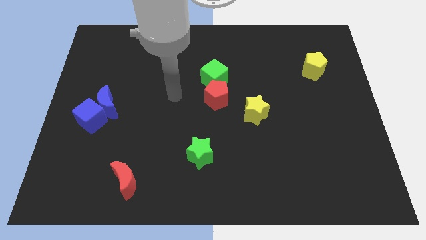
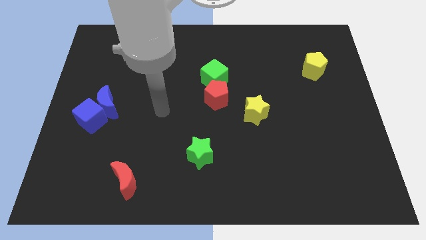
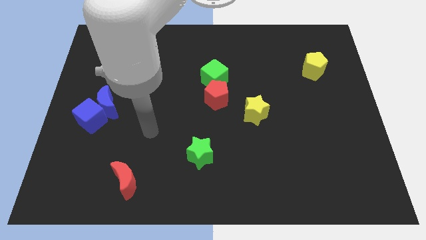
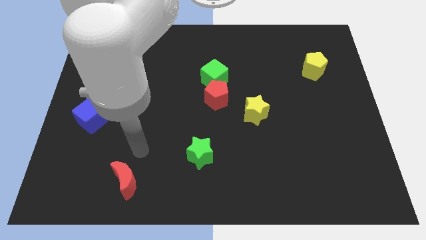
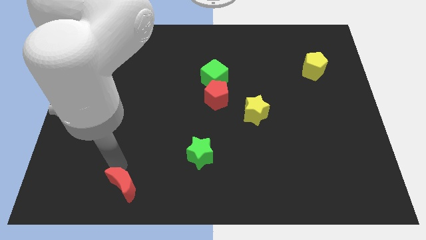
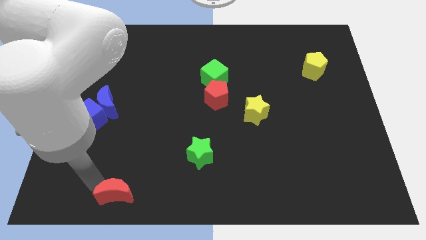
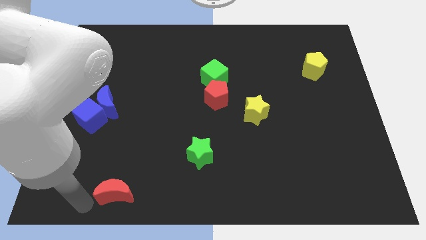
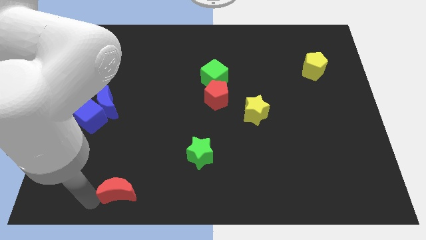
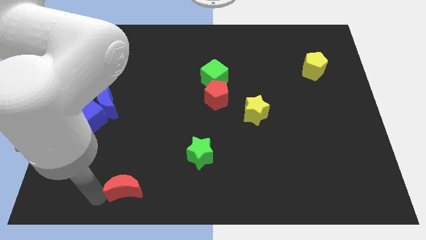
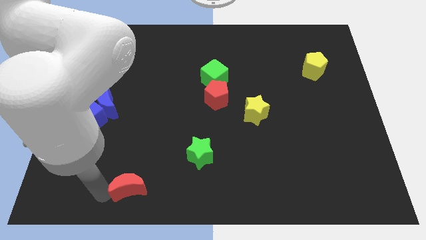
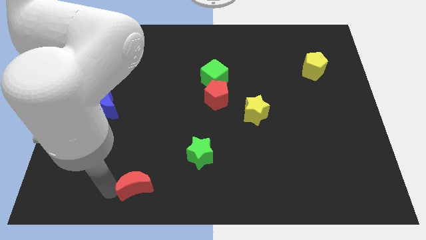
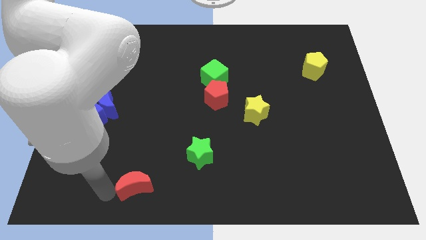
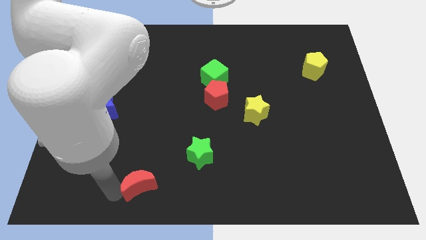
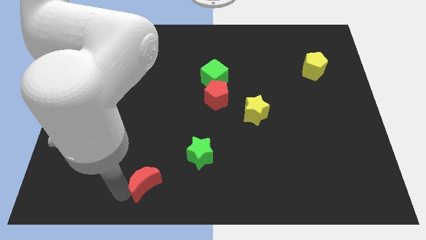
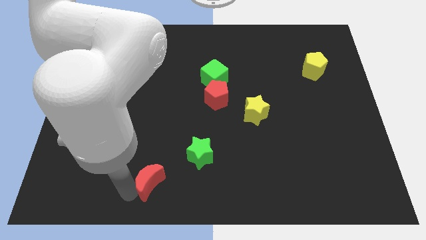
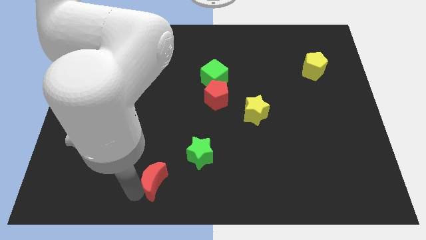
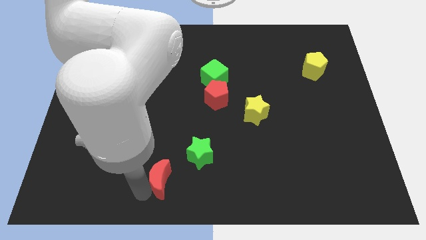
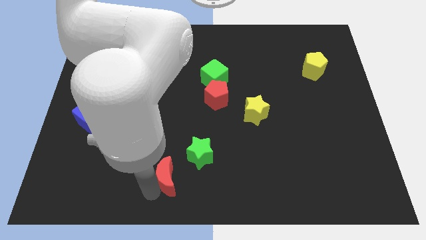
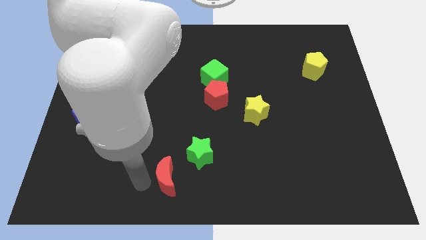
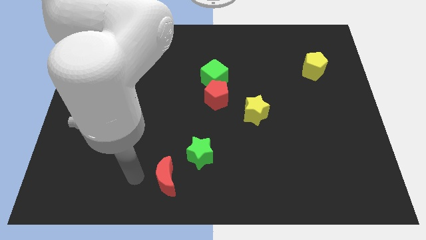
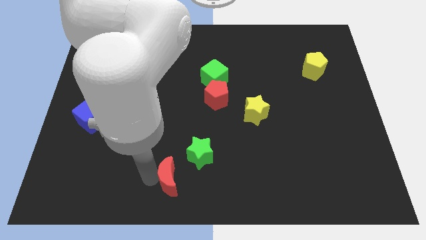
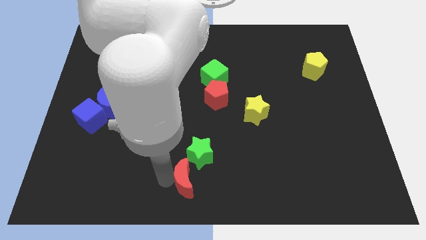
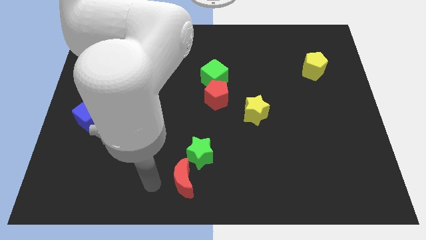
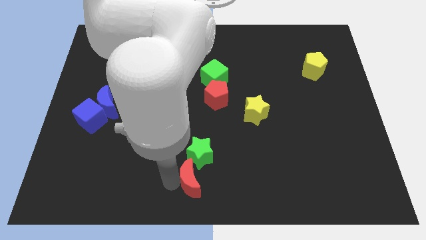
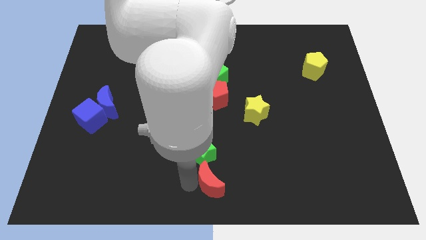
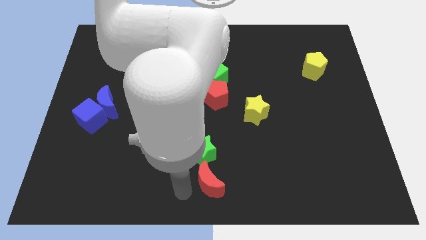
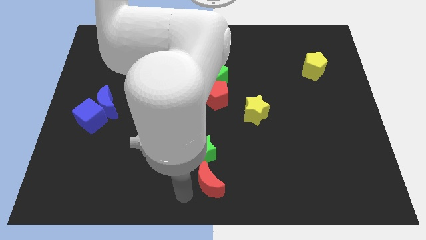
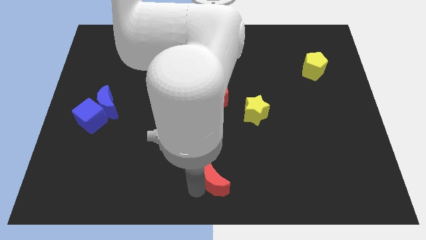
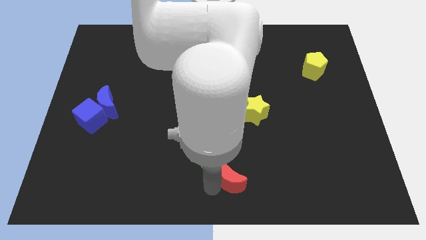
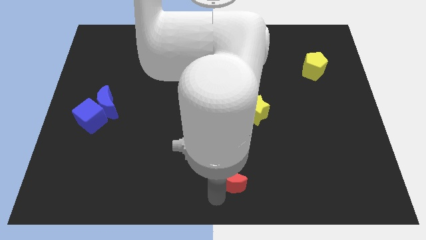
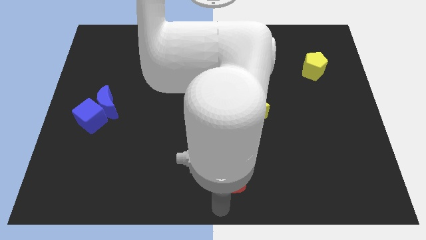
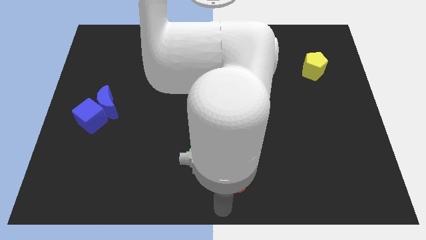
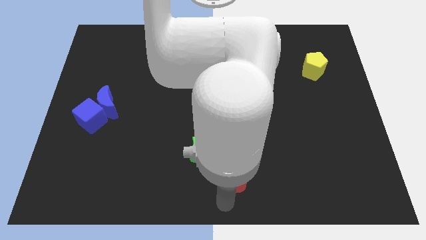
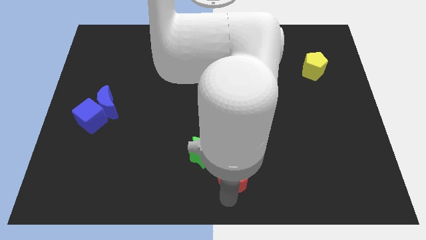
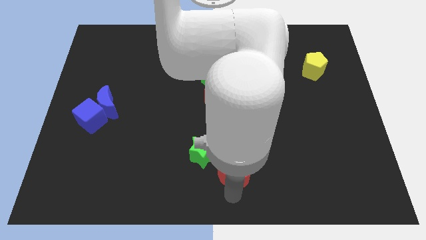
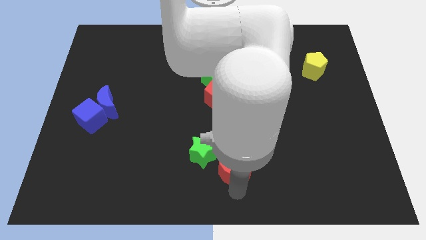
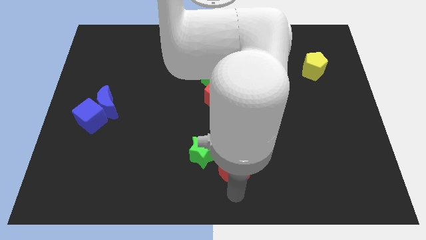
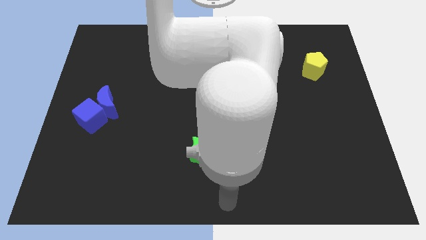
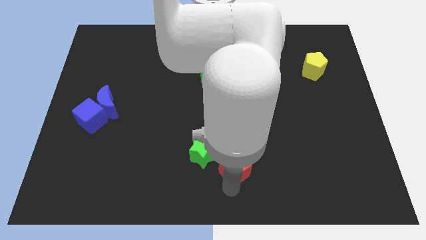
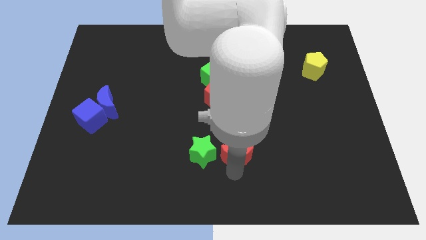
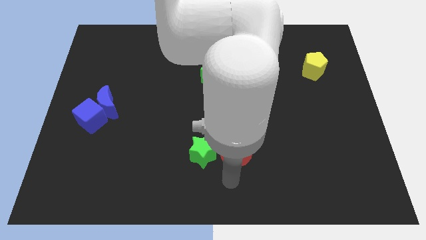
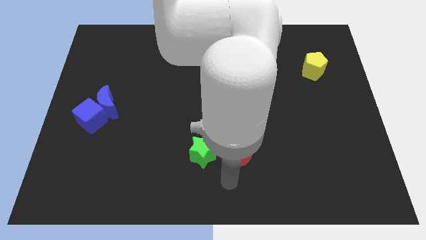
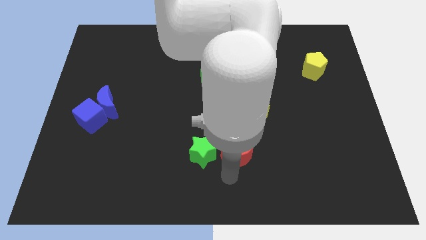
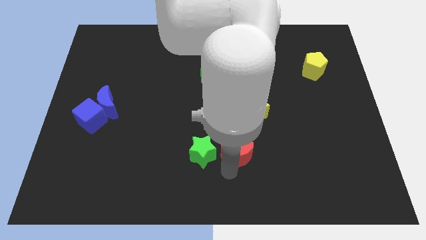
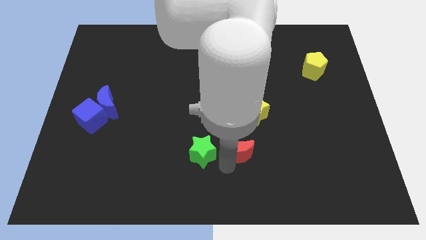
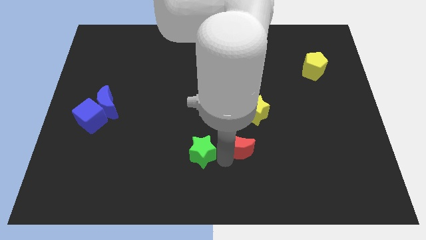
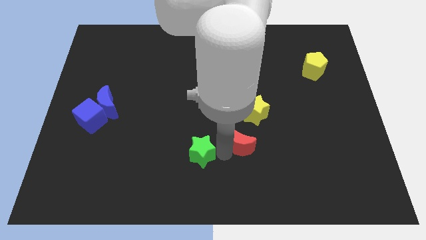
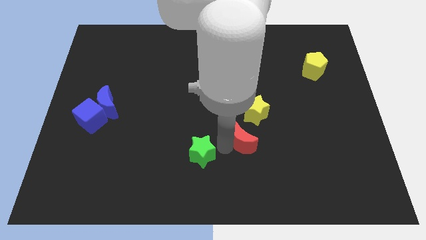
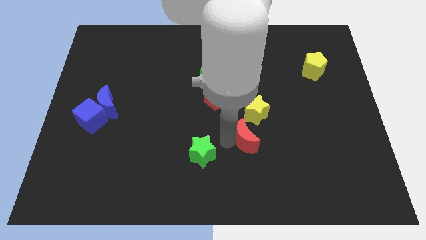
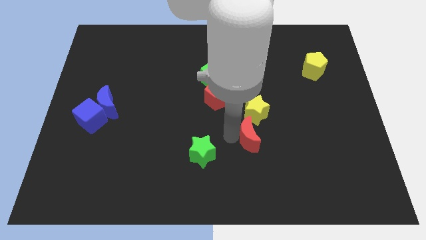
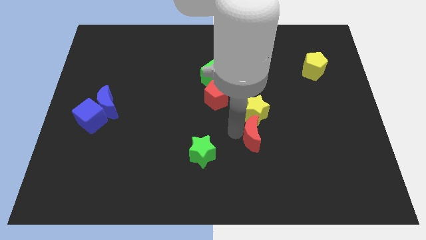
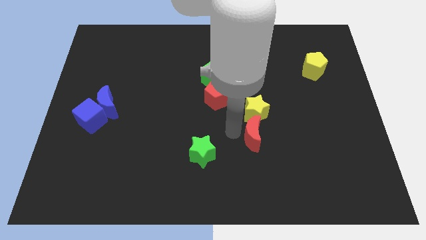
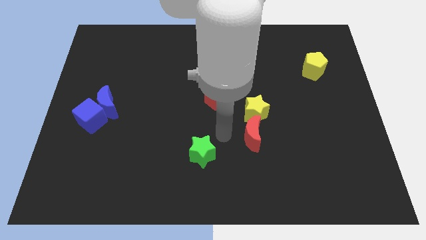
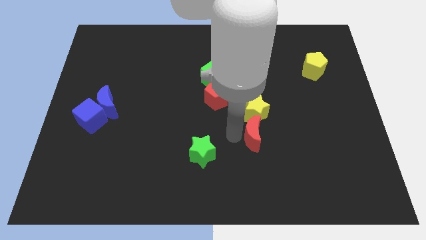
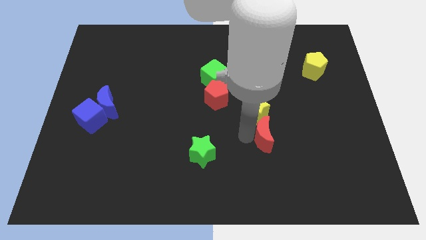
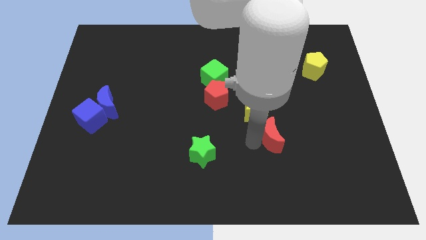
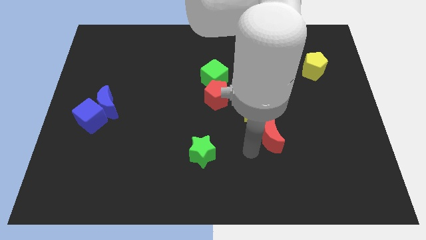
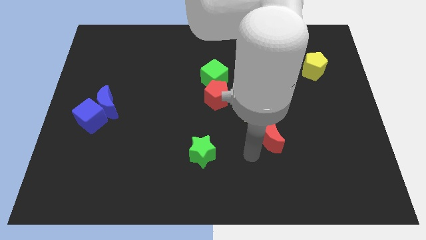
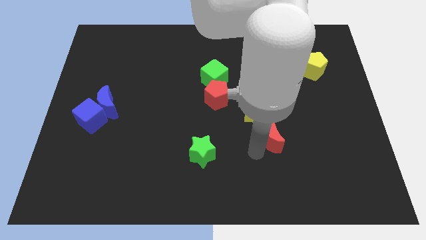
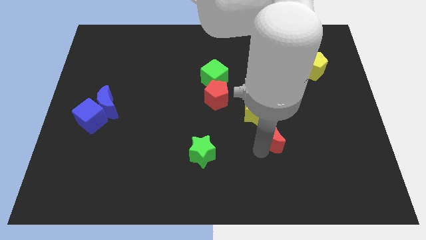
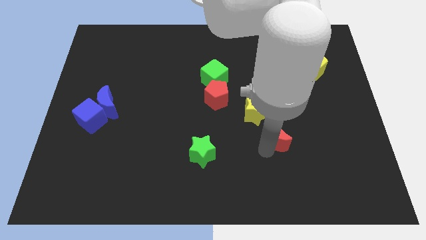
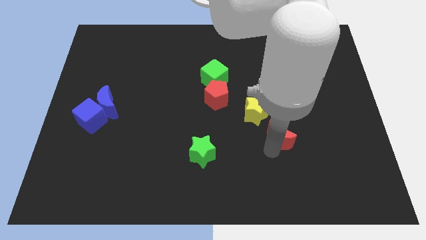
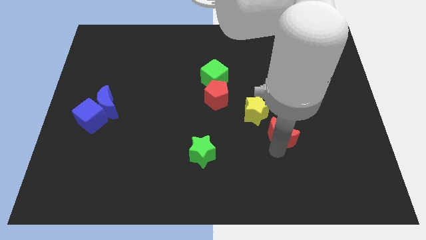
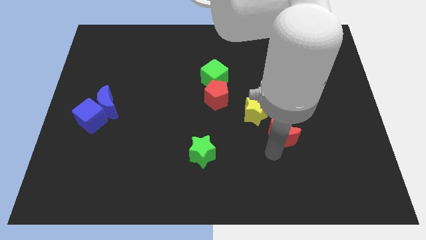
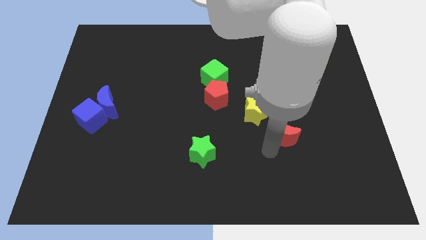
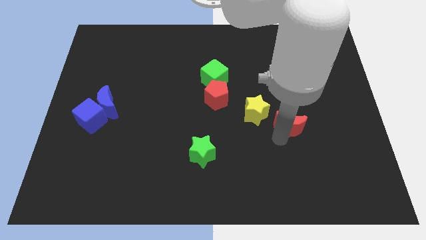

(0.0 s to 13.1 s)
push the red moon right of the yellow star
